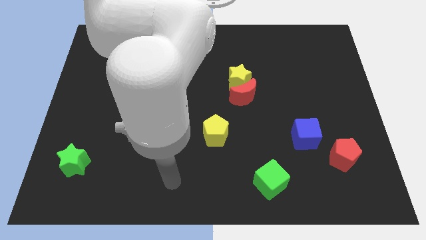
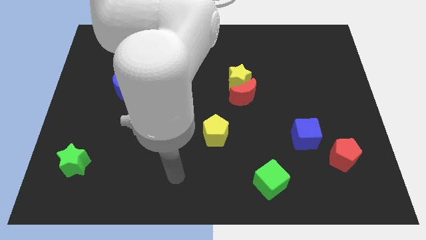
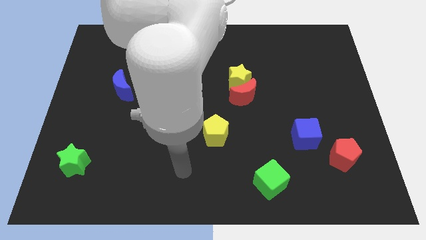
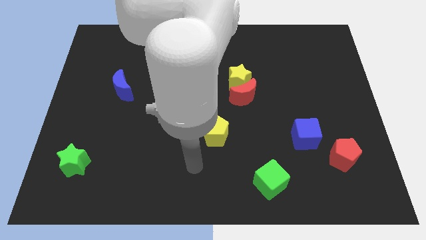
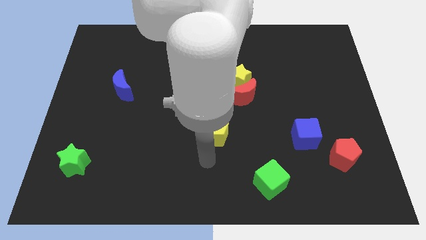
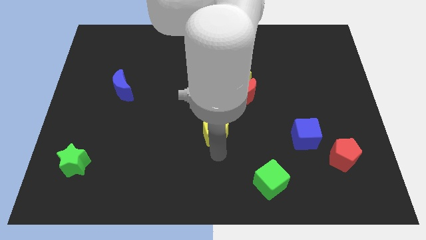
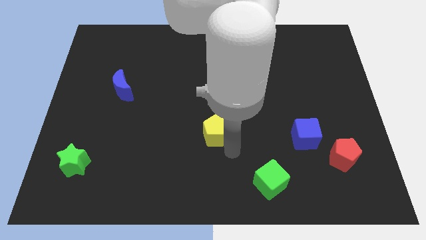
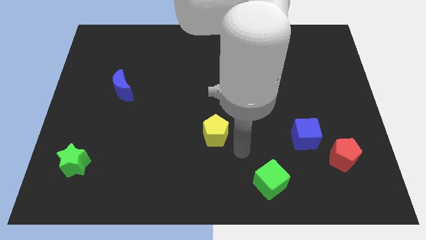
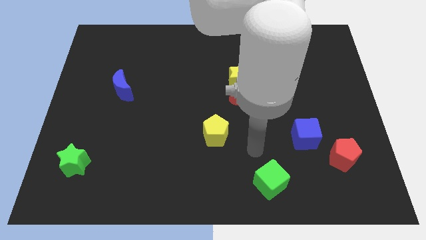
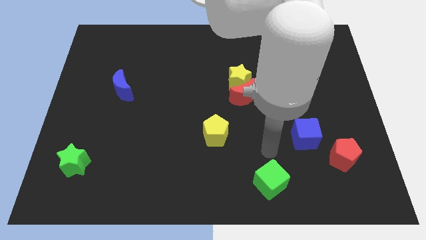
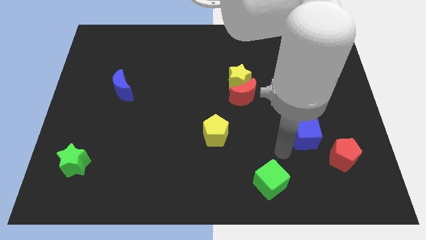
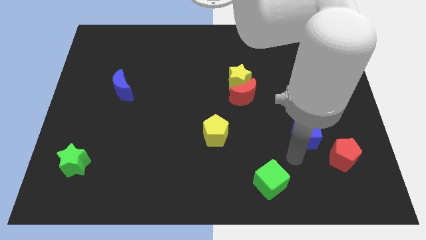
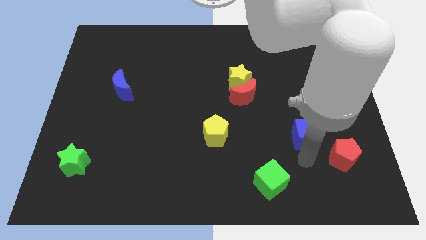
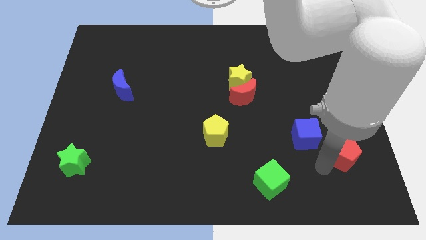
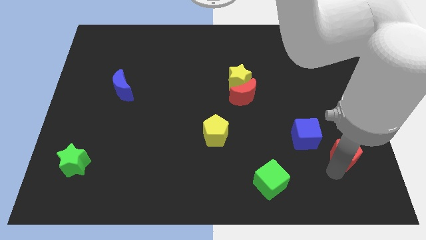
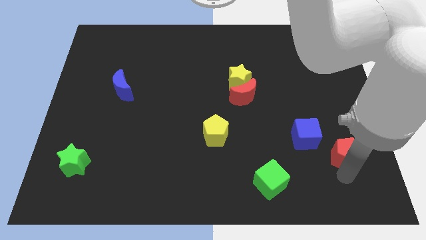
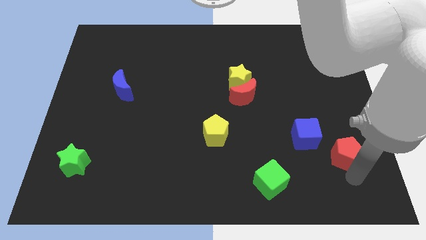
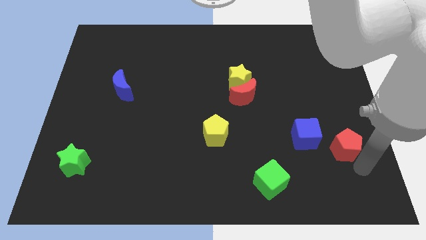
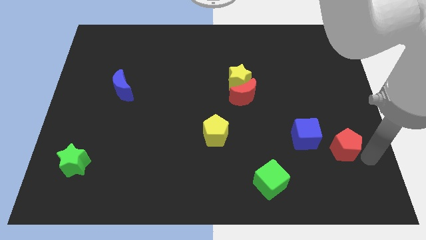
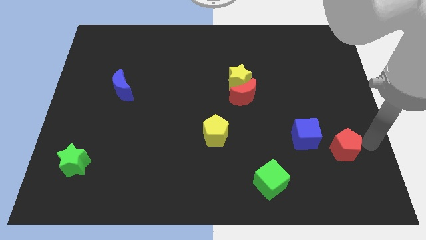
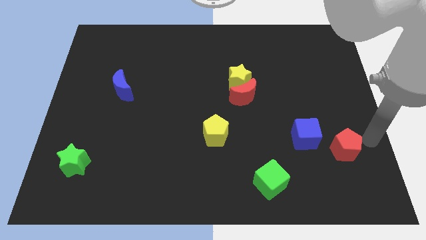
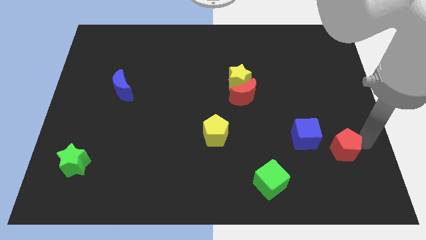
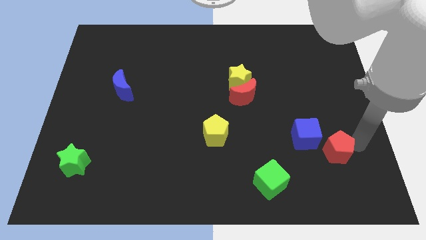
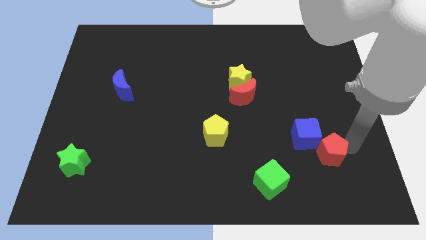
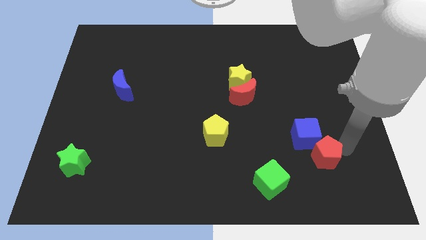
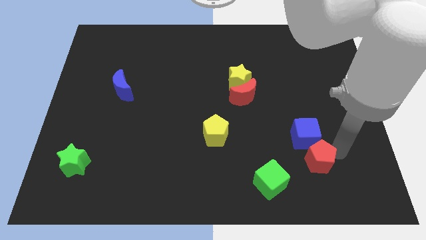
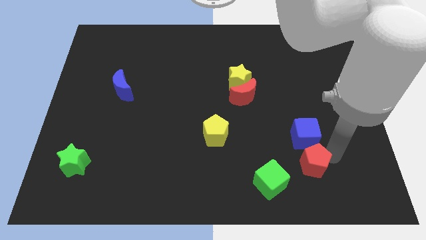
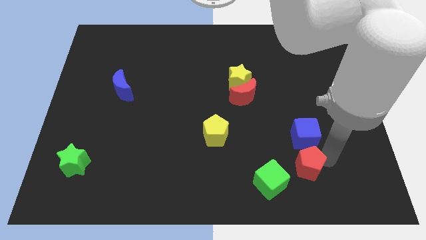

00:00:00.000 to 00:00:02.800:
push the red pentagon left a bit

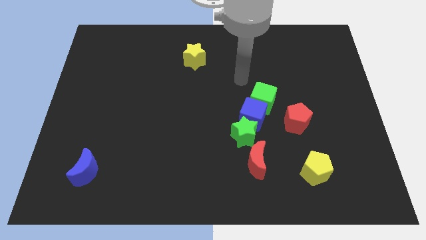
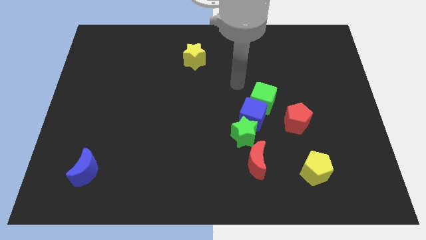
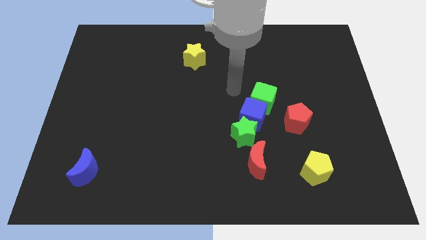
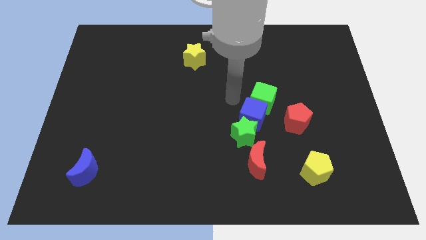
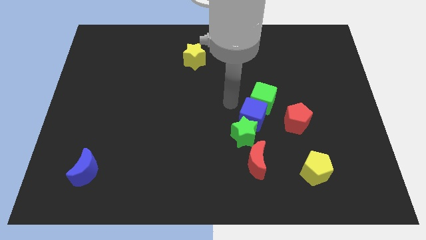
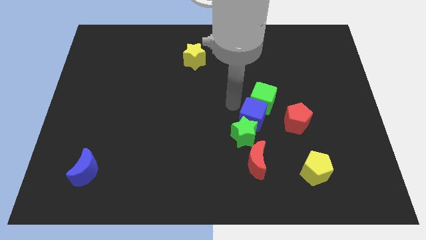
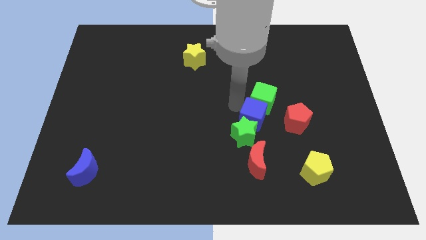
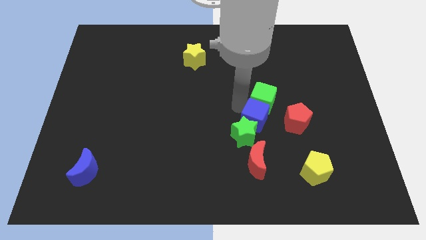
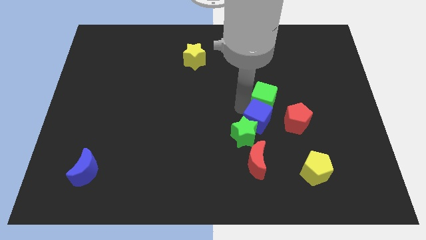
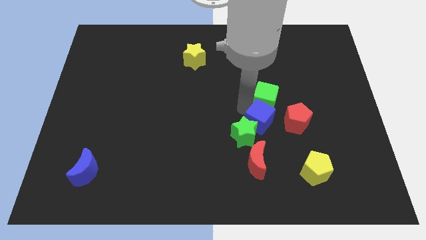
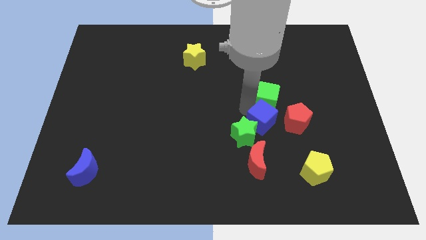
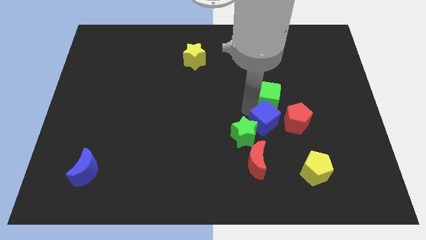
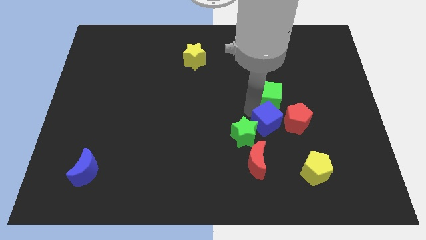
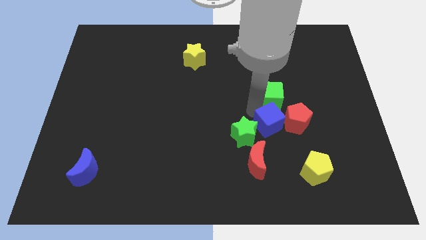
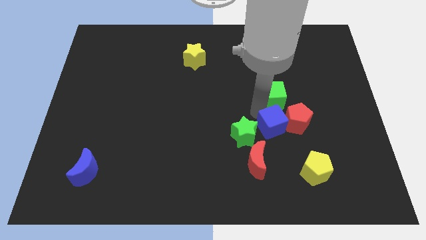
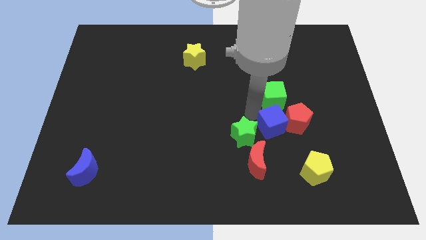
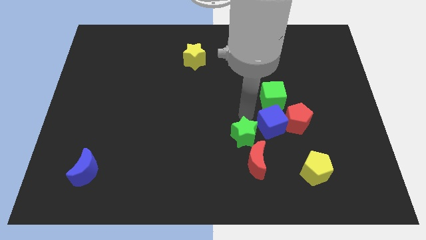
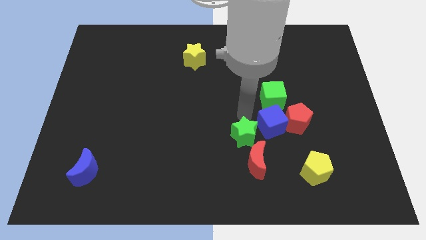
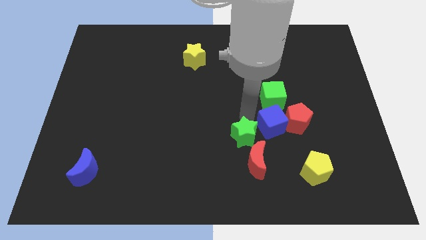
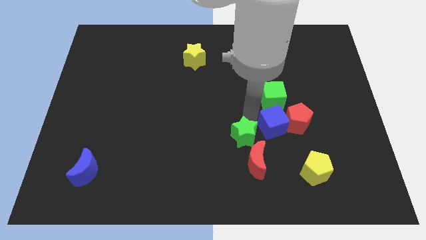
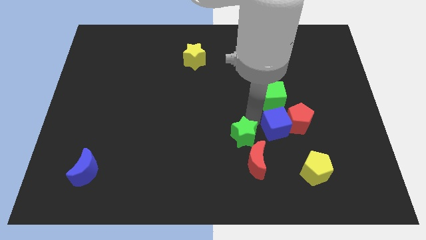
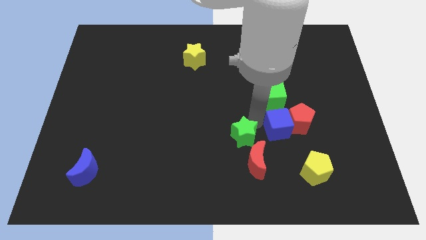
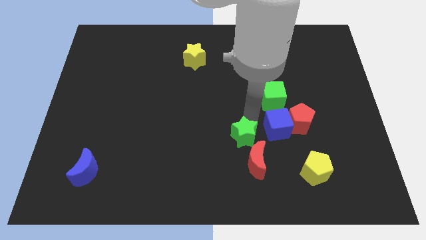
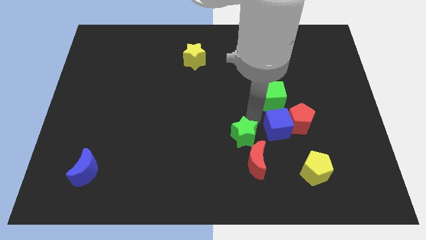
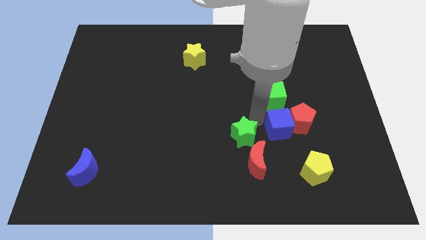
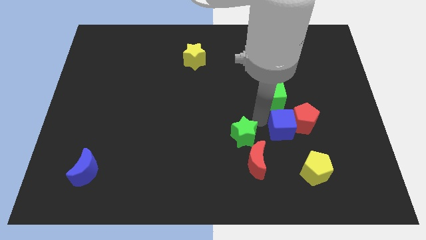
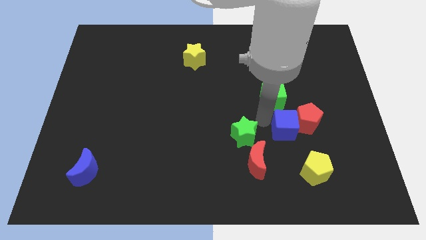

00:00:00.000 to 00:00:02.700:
slide the blue cube right a little bit

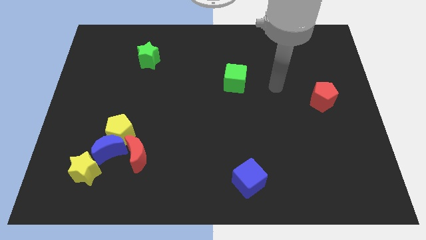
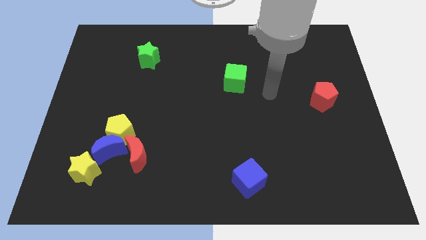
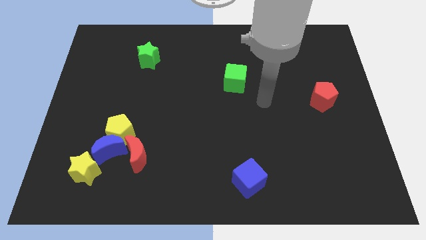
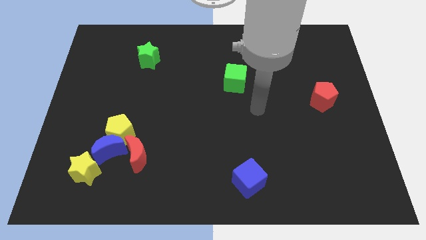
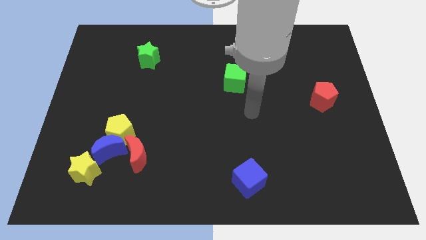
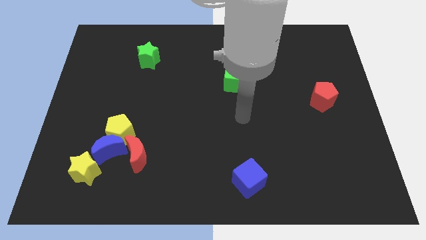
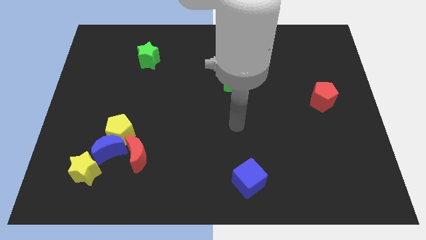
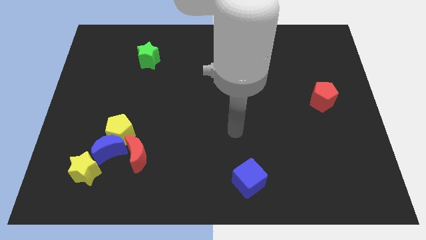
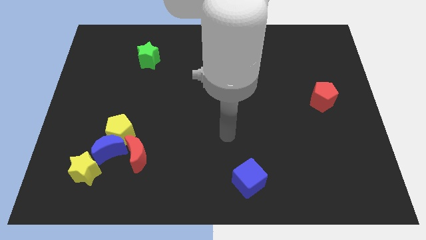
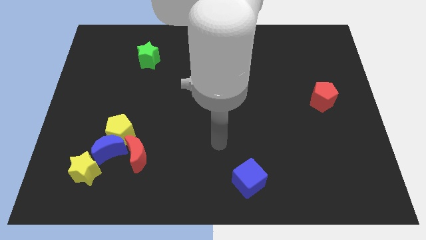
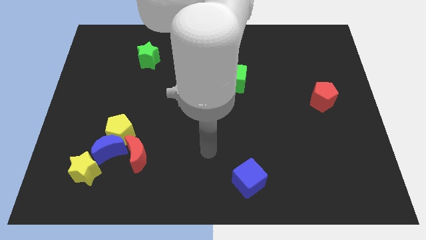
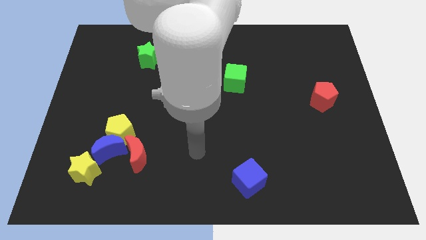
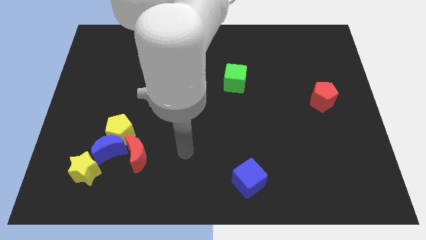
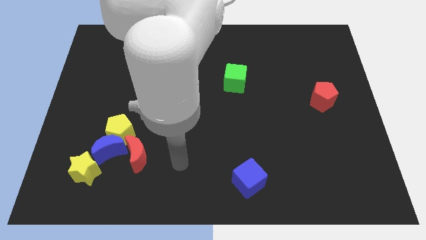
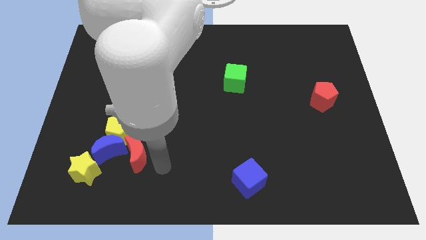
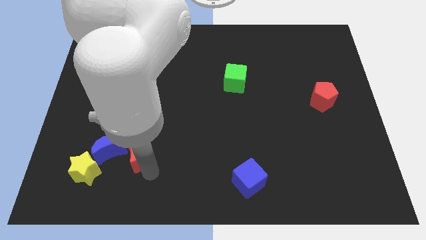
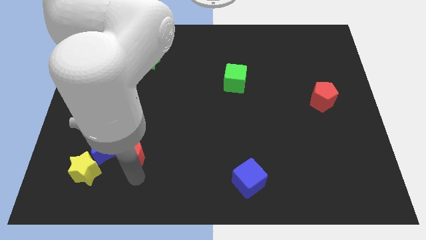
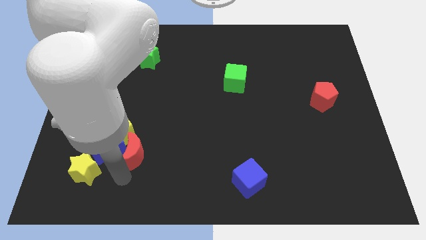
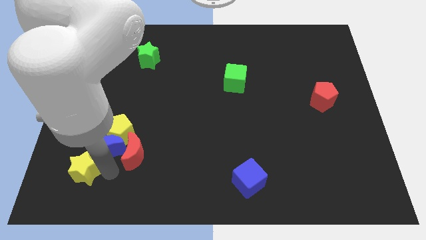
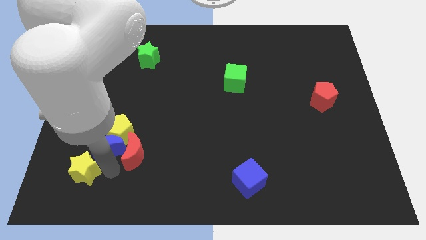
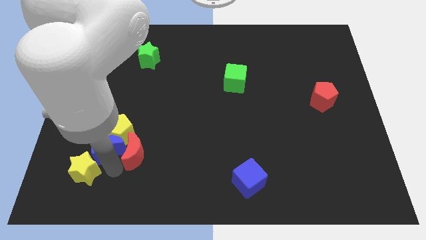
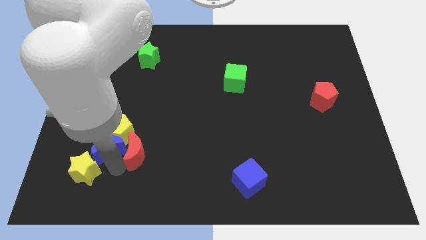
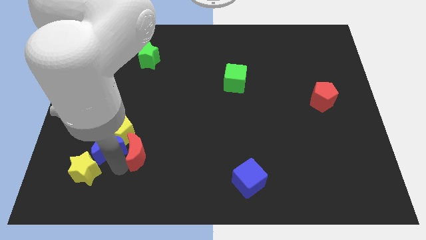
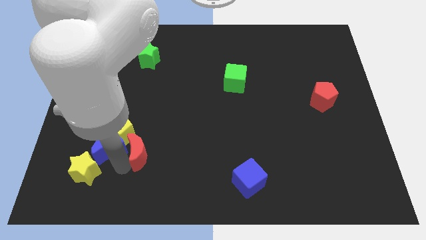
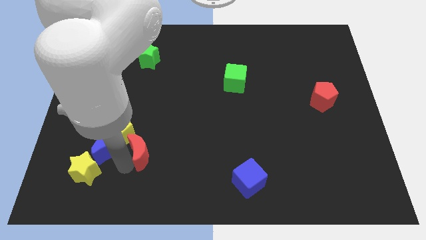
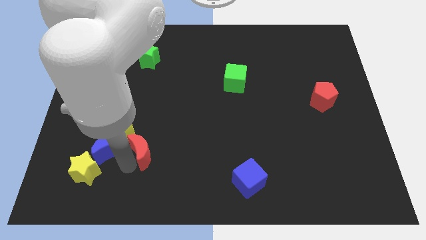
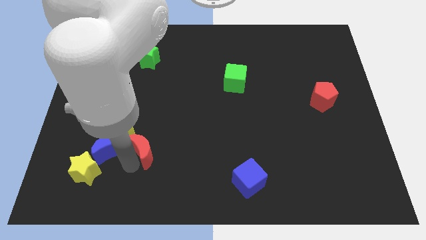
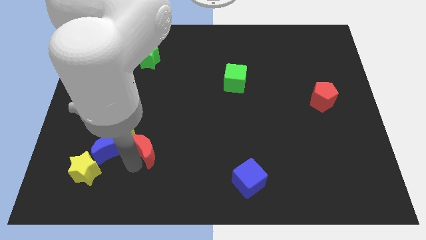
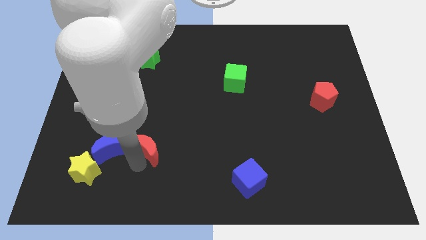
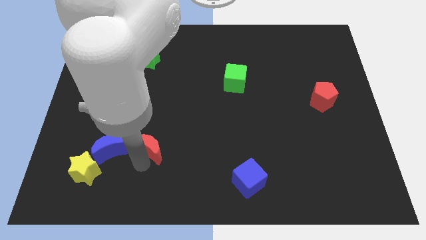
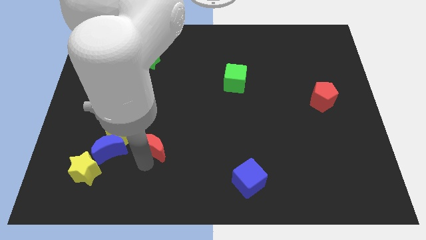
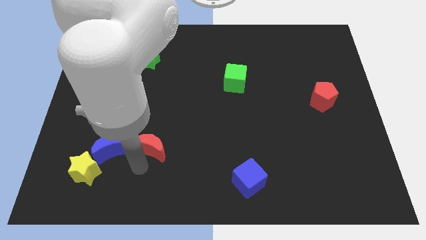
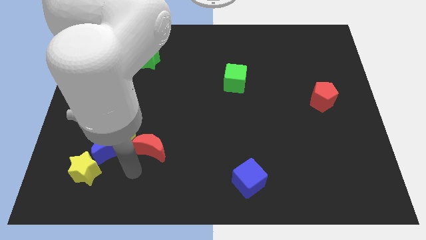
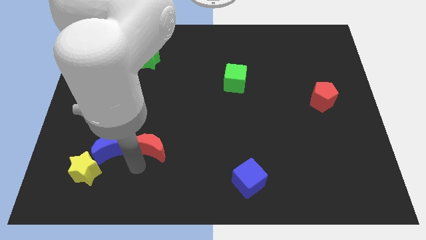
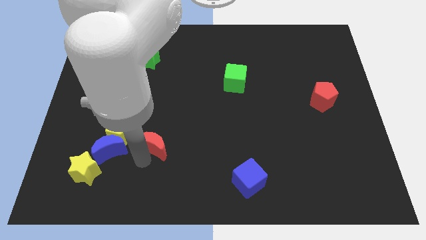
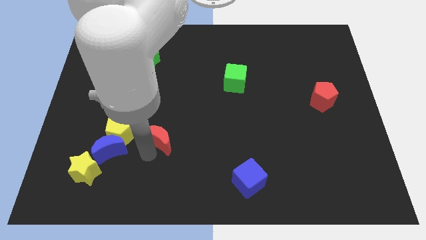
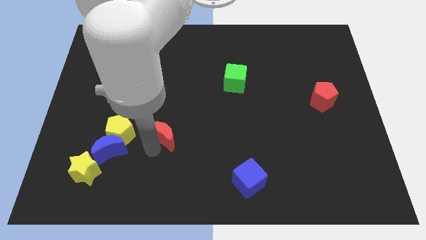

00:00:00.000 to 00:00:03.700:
slightly slide the red moon up and to the right diagonally
